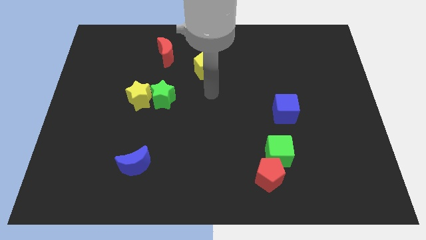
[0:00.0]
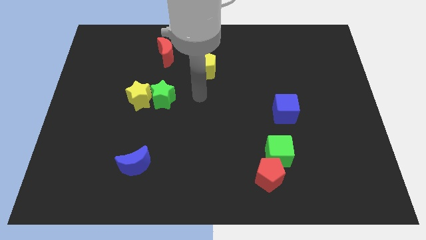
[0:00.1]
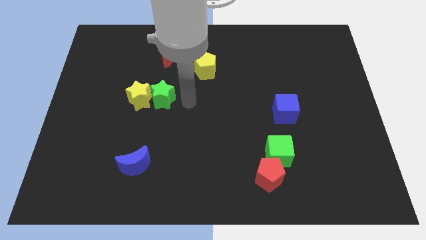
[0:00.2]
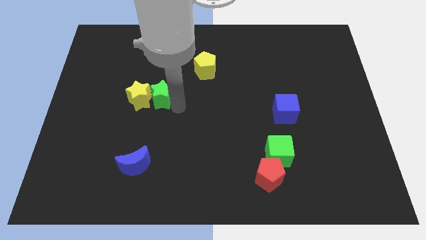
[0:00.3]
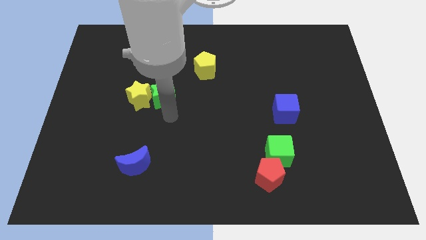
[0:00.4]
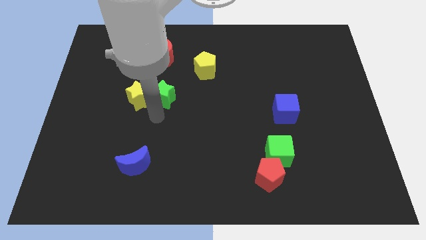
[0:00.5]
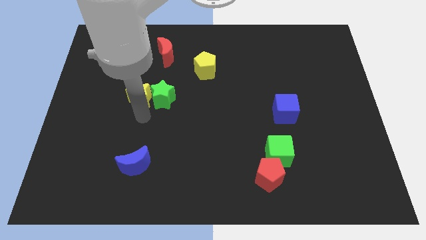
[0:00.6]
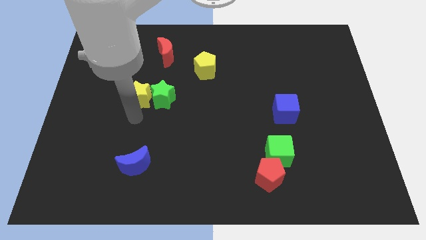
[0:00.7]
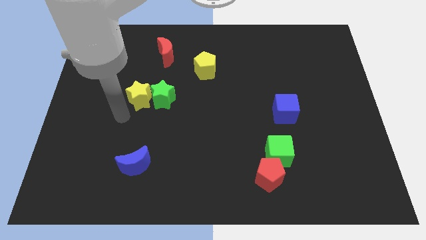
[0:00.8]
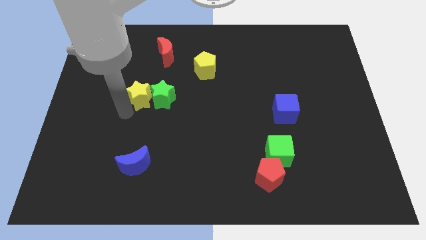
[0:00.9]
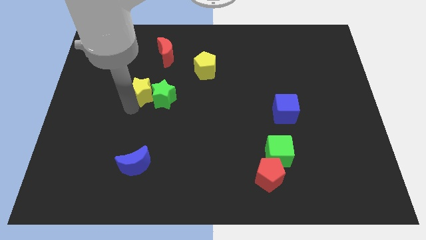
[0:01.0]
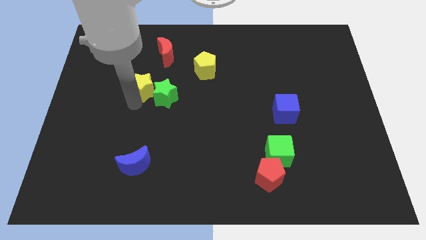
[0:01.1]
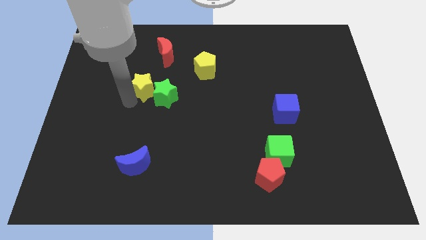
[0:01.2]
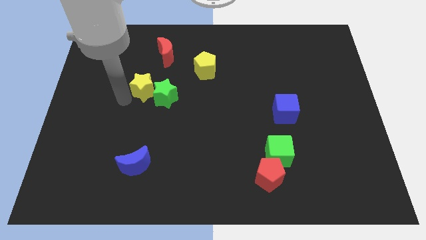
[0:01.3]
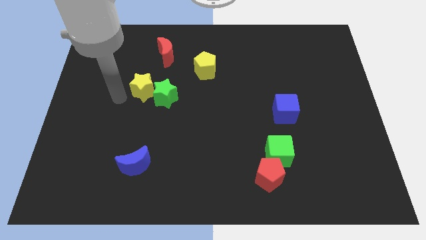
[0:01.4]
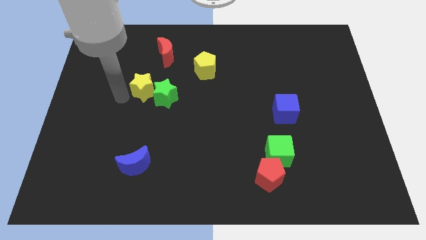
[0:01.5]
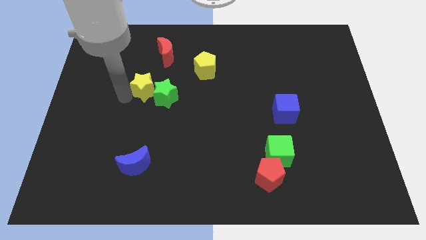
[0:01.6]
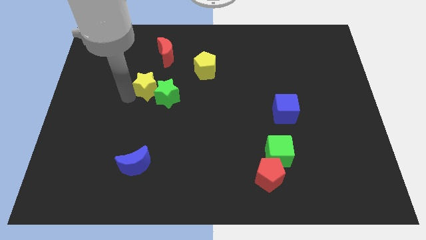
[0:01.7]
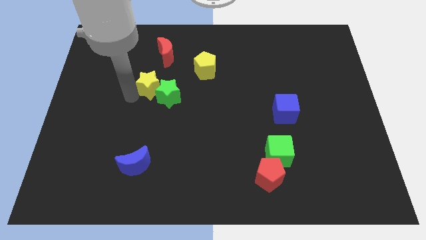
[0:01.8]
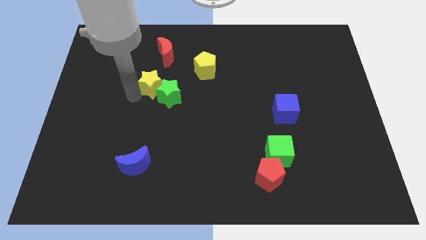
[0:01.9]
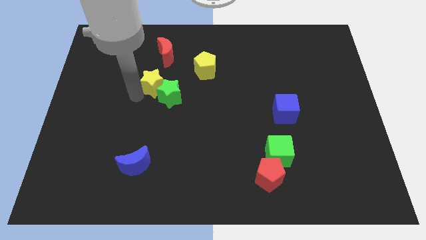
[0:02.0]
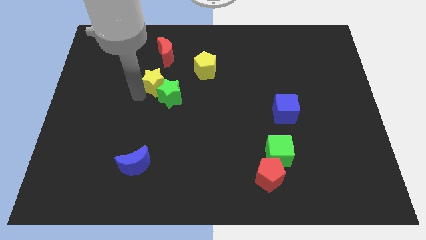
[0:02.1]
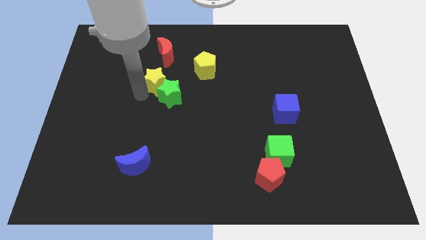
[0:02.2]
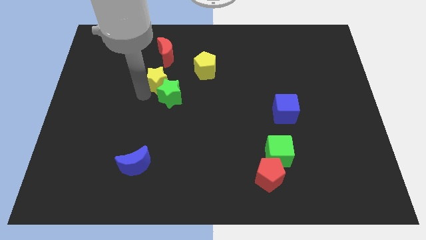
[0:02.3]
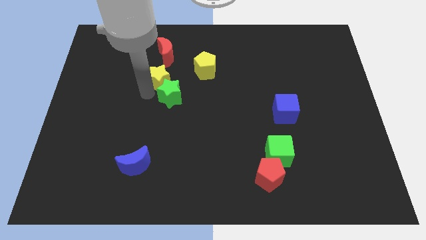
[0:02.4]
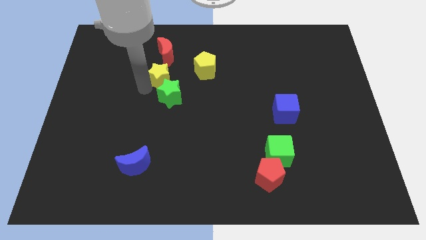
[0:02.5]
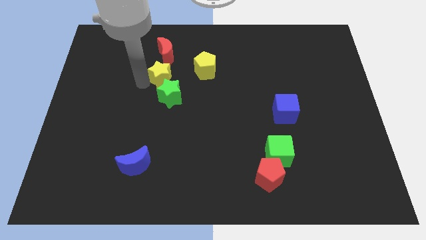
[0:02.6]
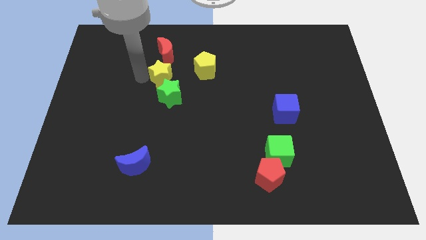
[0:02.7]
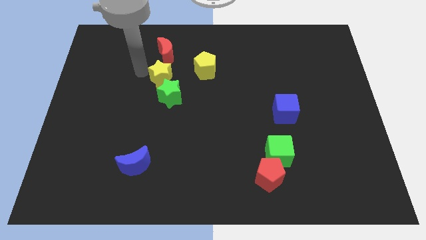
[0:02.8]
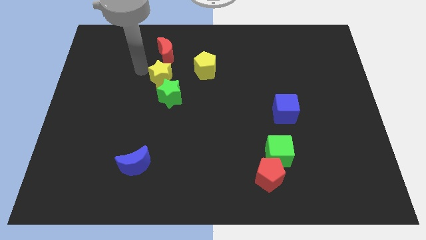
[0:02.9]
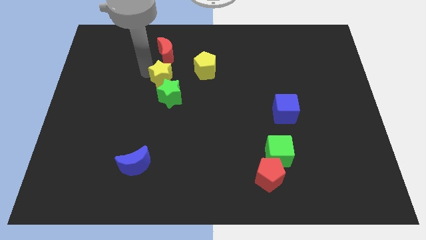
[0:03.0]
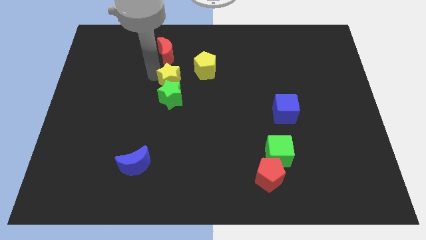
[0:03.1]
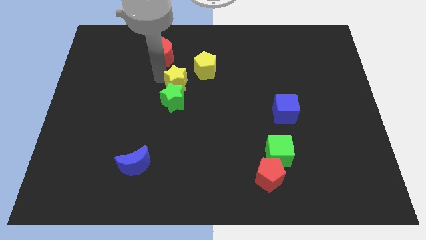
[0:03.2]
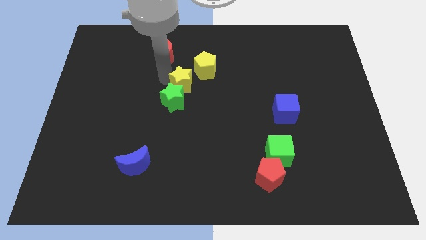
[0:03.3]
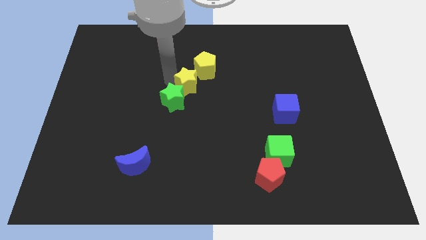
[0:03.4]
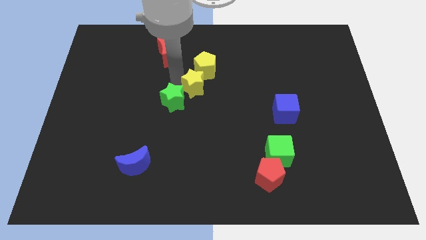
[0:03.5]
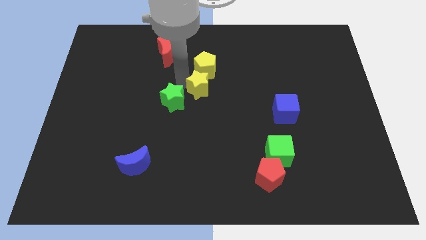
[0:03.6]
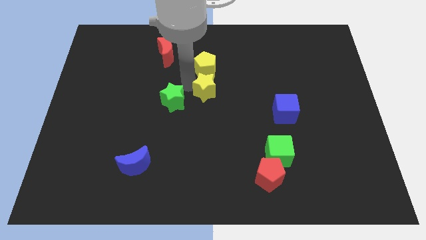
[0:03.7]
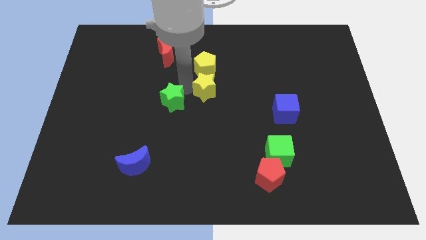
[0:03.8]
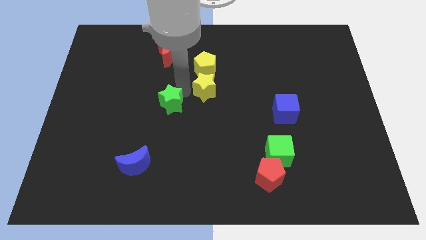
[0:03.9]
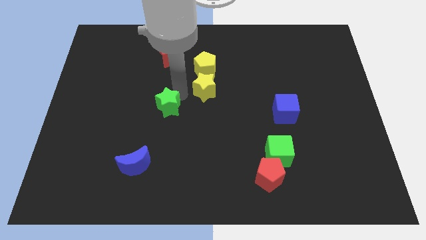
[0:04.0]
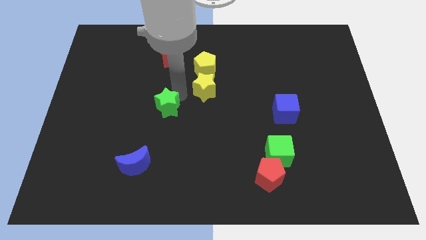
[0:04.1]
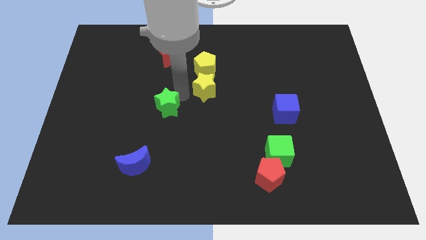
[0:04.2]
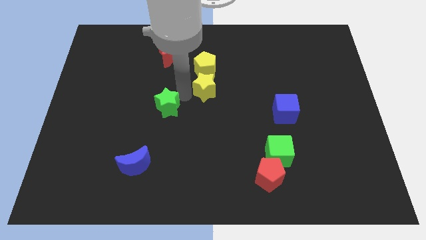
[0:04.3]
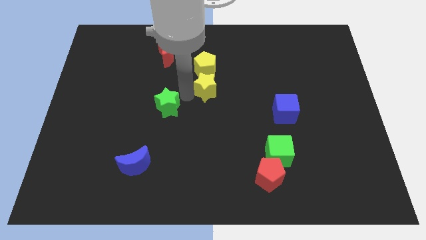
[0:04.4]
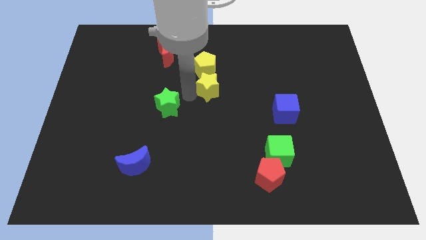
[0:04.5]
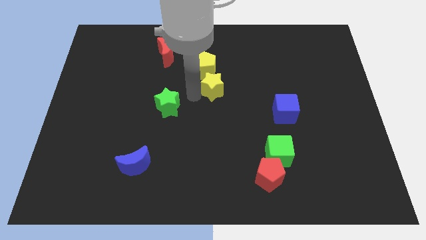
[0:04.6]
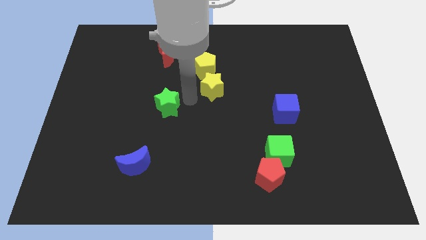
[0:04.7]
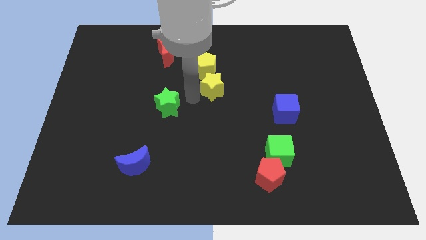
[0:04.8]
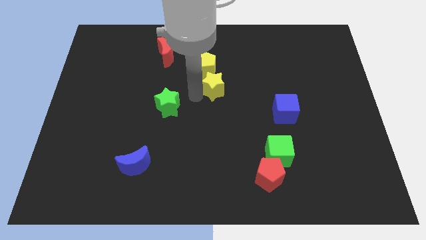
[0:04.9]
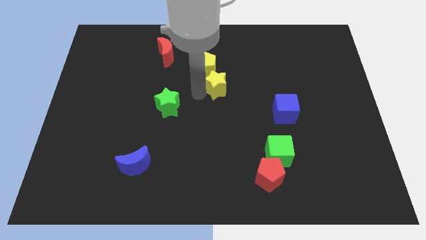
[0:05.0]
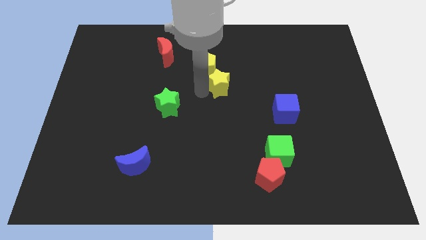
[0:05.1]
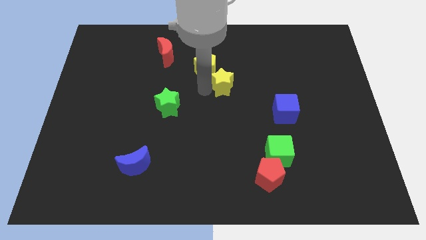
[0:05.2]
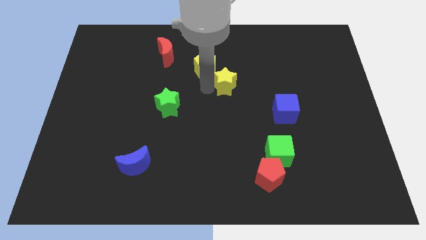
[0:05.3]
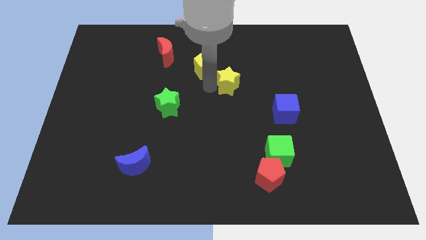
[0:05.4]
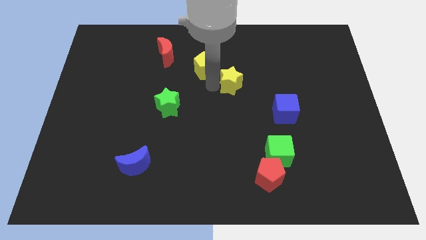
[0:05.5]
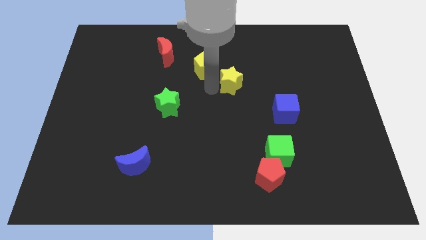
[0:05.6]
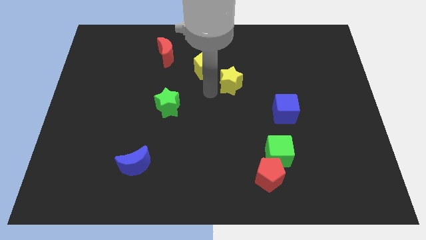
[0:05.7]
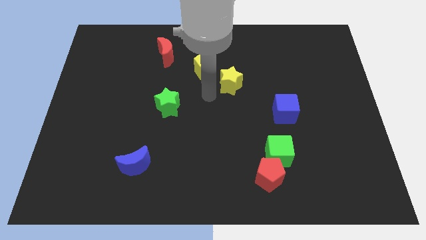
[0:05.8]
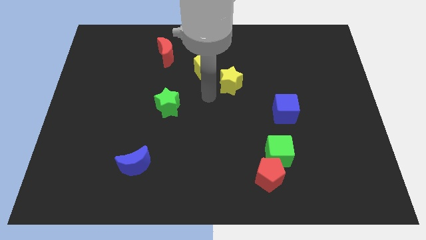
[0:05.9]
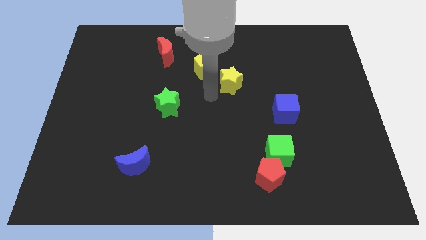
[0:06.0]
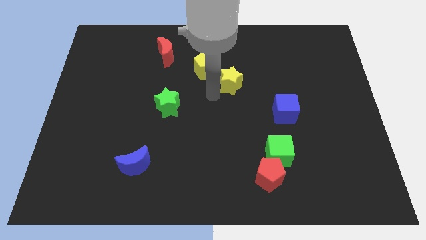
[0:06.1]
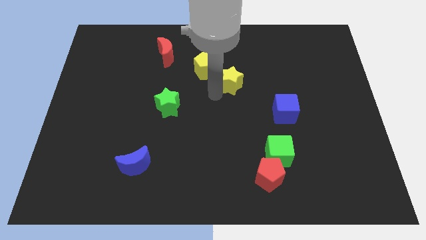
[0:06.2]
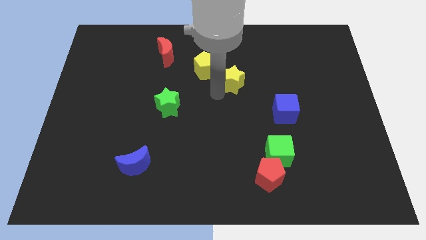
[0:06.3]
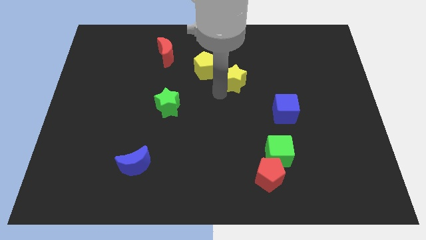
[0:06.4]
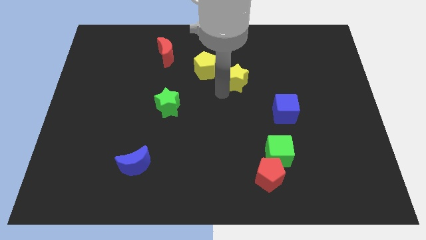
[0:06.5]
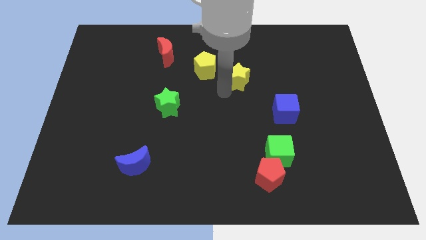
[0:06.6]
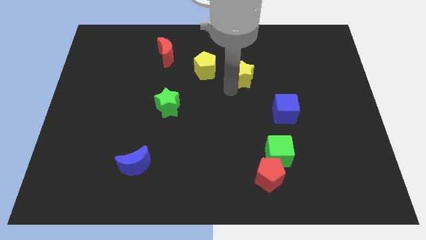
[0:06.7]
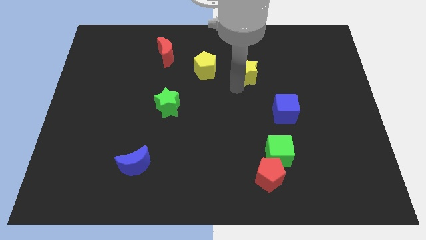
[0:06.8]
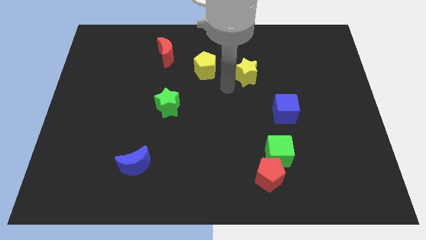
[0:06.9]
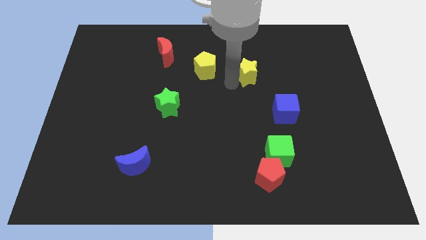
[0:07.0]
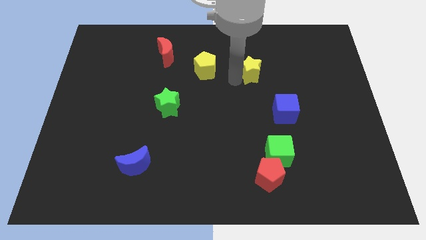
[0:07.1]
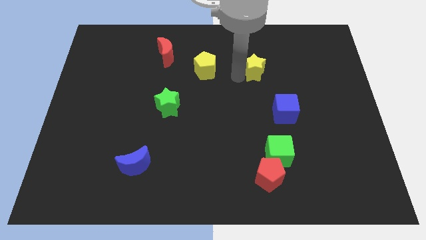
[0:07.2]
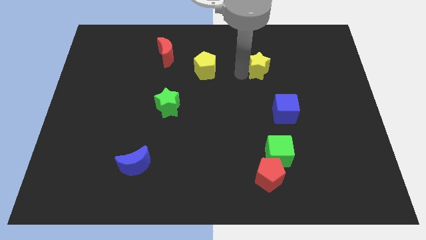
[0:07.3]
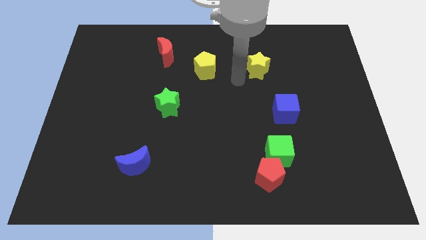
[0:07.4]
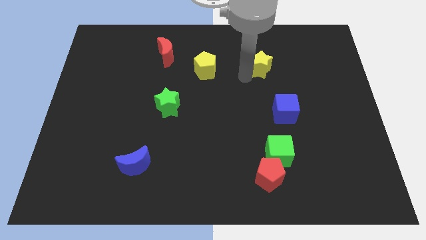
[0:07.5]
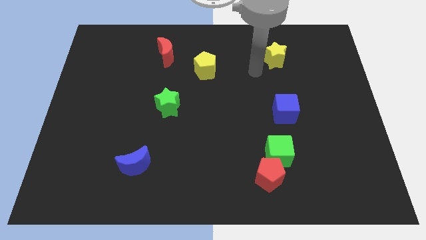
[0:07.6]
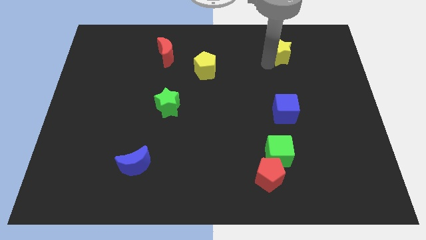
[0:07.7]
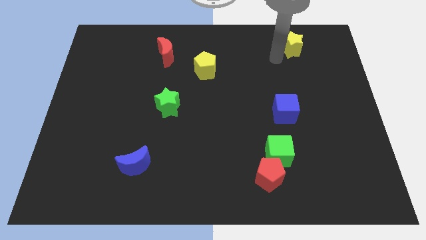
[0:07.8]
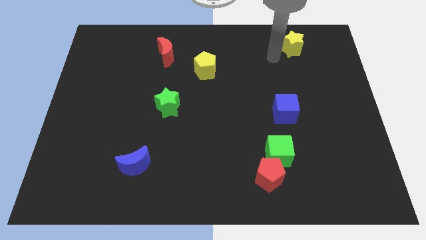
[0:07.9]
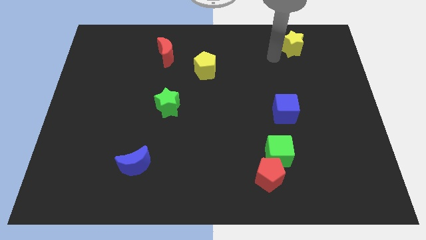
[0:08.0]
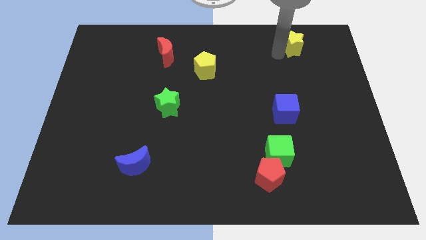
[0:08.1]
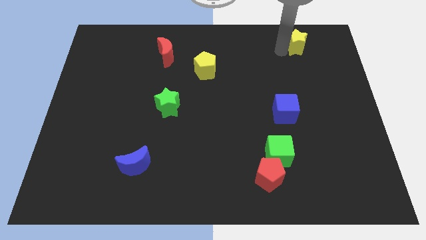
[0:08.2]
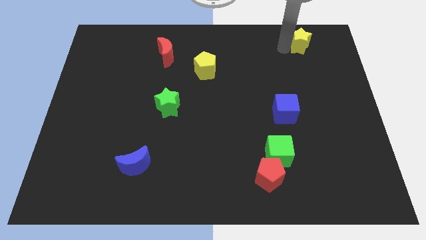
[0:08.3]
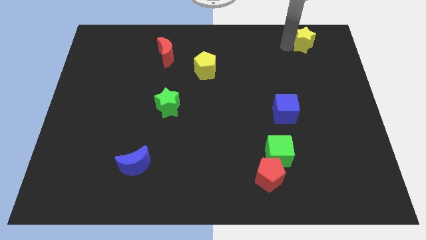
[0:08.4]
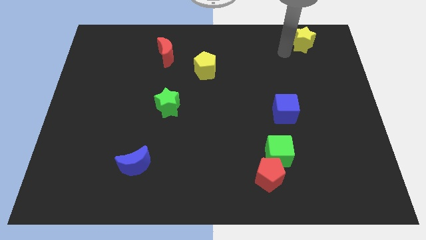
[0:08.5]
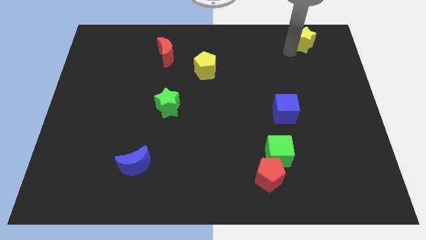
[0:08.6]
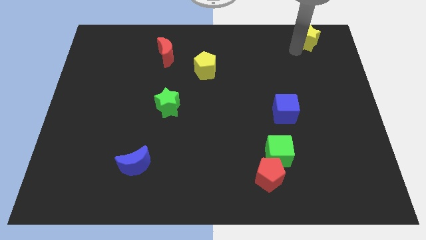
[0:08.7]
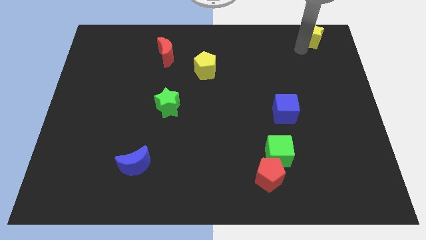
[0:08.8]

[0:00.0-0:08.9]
put the yellow star to the top right corner
